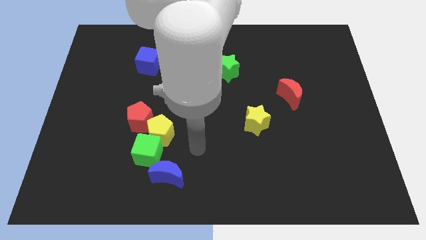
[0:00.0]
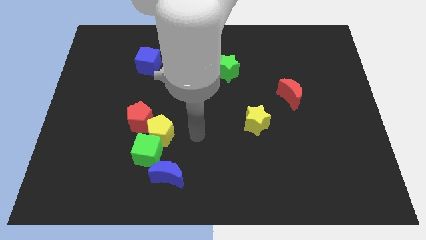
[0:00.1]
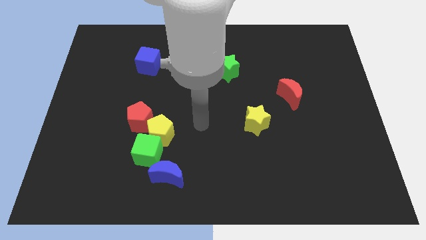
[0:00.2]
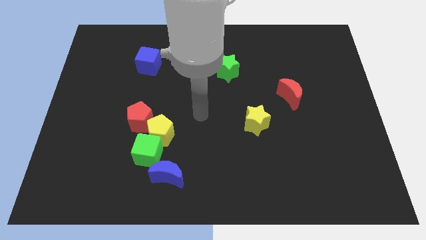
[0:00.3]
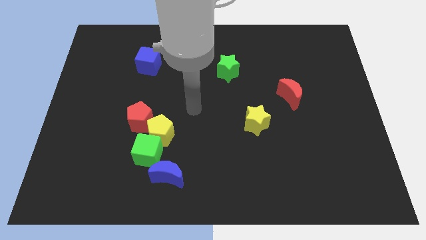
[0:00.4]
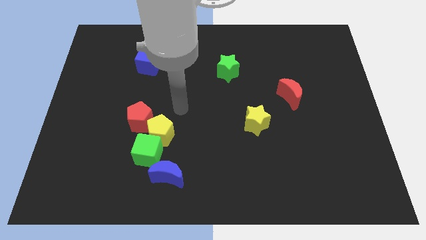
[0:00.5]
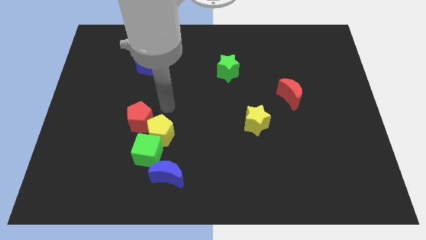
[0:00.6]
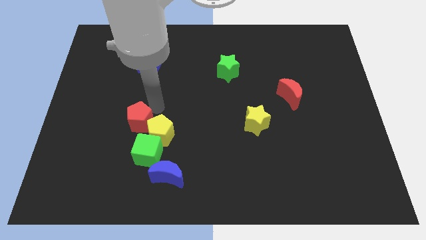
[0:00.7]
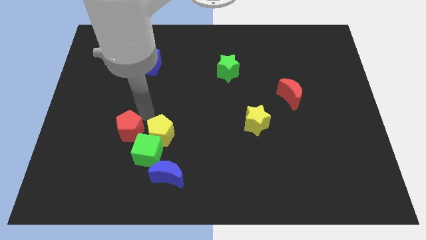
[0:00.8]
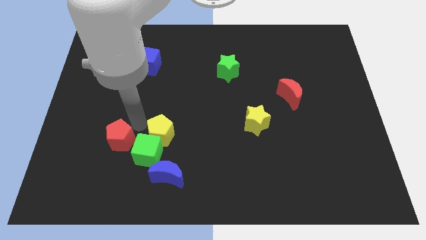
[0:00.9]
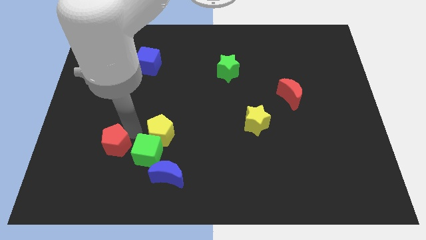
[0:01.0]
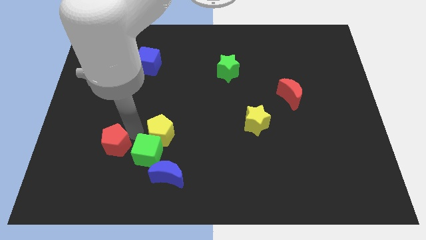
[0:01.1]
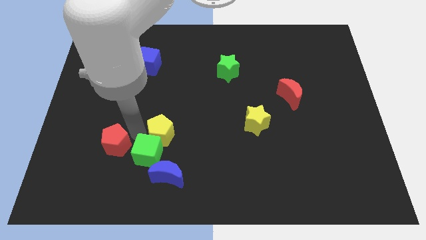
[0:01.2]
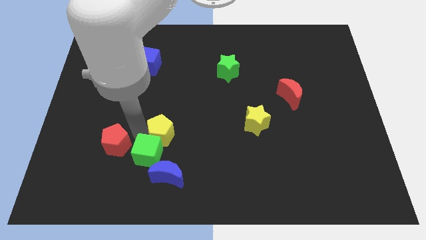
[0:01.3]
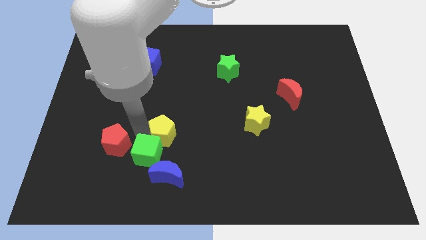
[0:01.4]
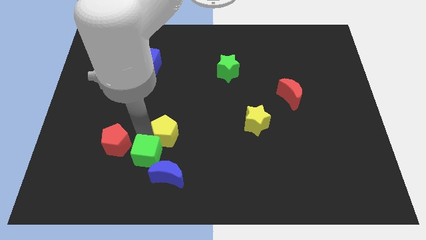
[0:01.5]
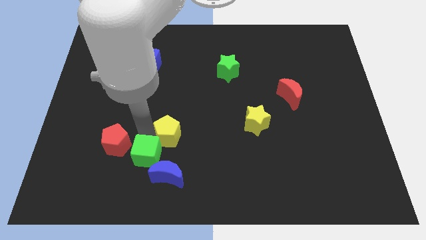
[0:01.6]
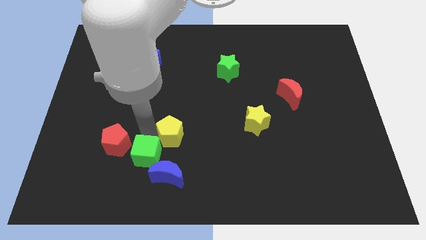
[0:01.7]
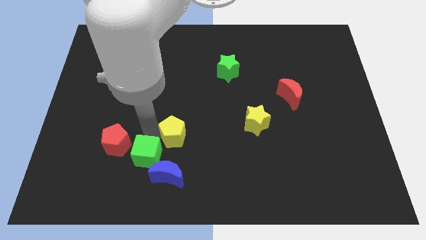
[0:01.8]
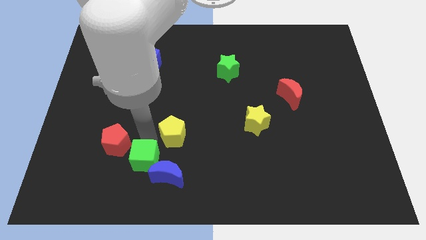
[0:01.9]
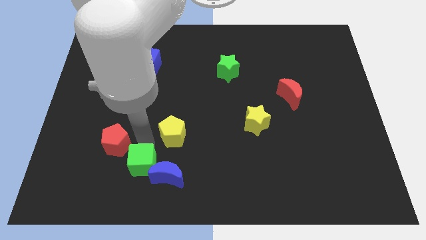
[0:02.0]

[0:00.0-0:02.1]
separate the yellow pentagon from the green cube and red pentagon

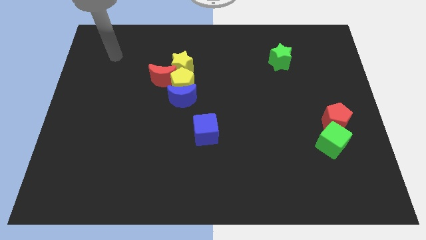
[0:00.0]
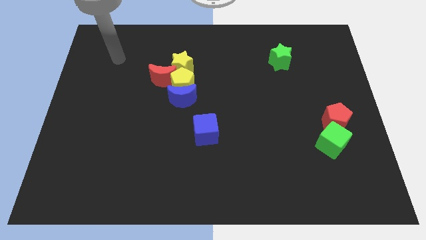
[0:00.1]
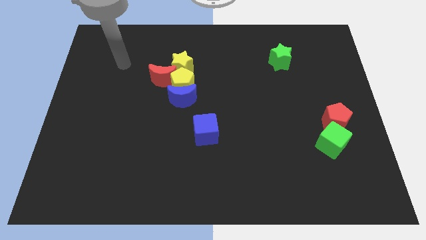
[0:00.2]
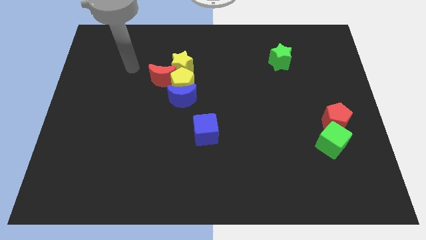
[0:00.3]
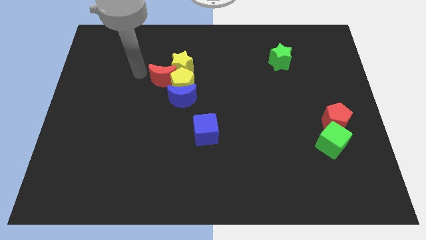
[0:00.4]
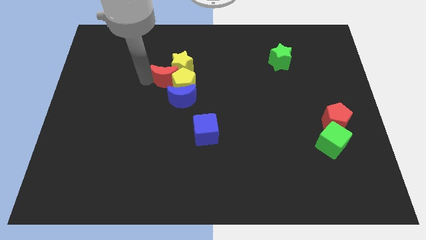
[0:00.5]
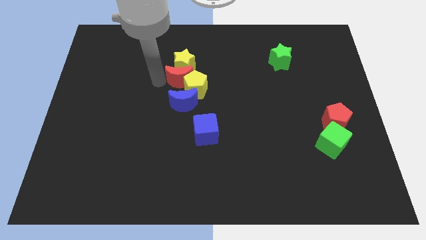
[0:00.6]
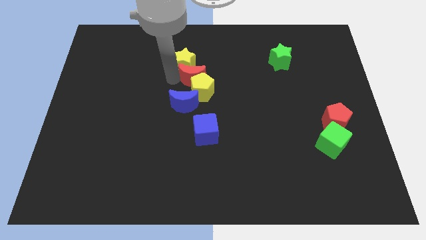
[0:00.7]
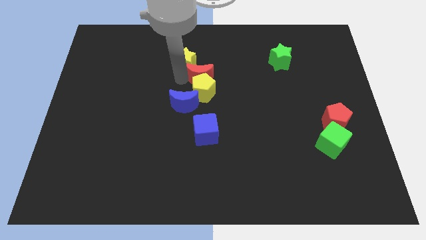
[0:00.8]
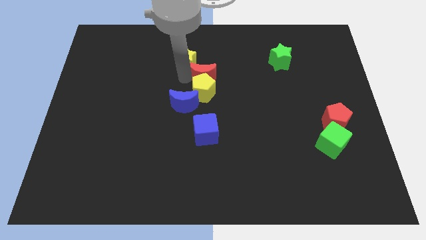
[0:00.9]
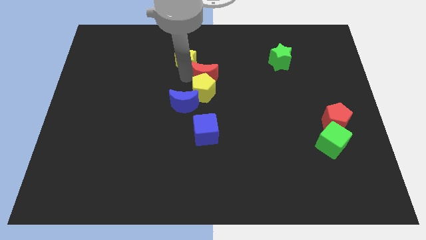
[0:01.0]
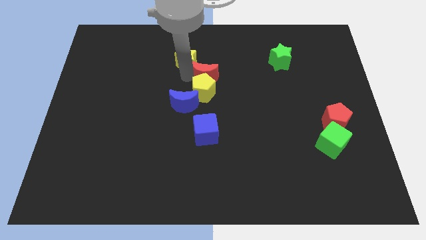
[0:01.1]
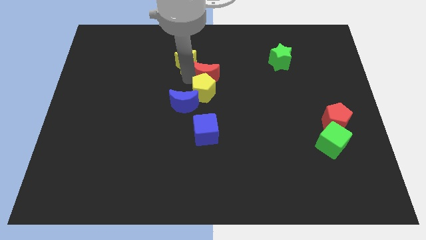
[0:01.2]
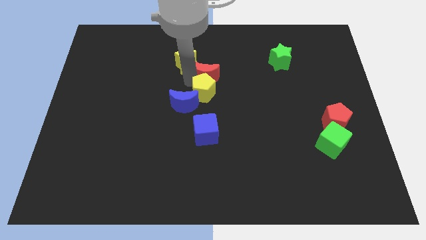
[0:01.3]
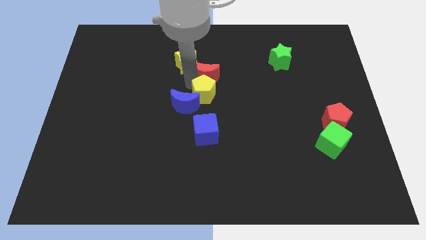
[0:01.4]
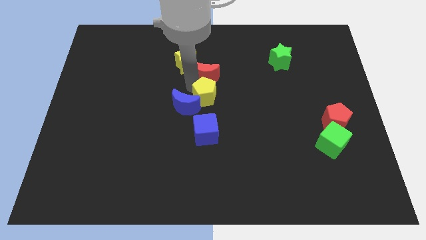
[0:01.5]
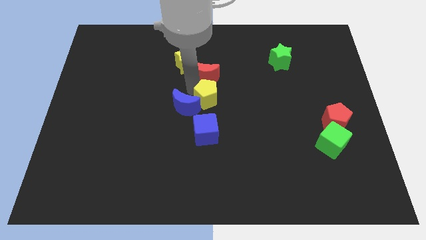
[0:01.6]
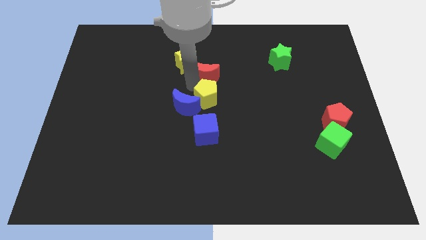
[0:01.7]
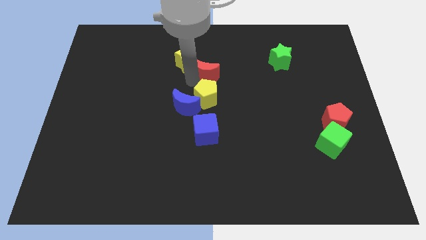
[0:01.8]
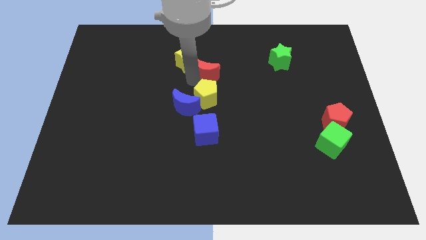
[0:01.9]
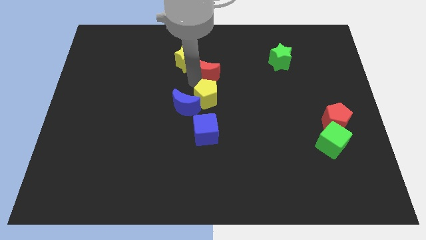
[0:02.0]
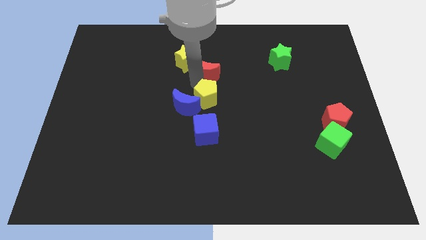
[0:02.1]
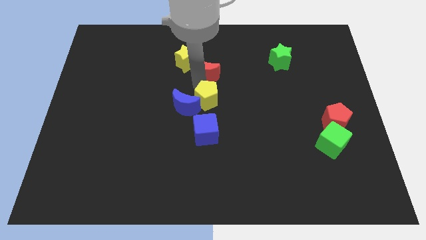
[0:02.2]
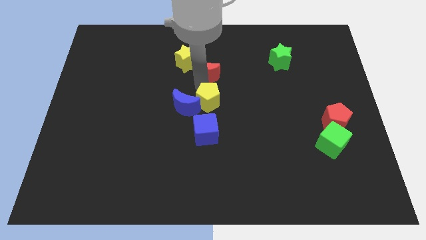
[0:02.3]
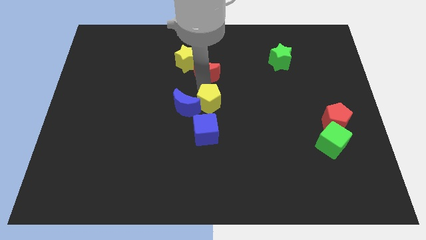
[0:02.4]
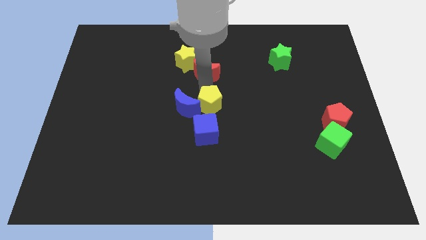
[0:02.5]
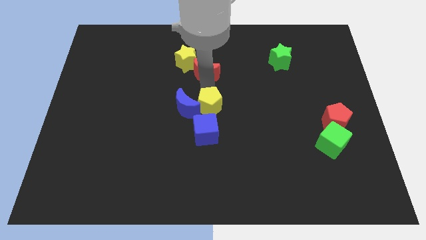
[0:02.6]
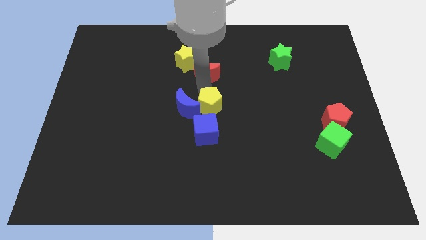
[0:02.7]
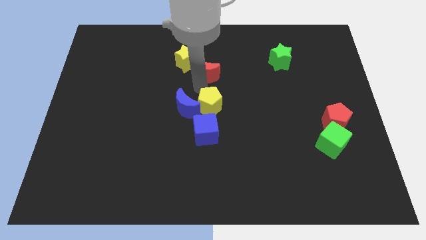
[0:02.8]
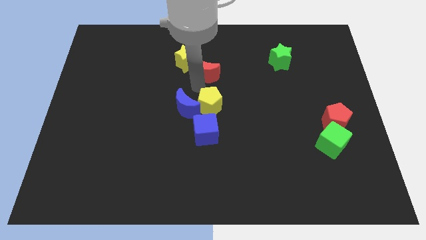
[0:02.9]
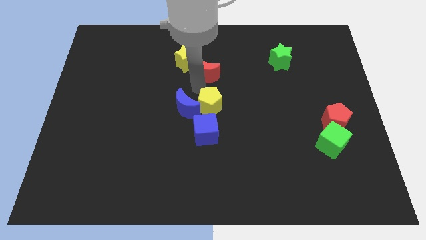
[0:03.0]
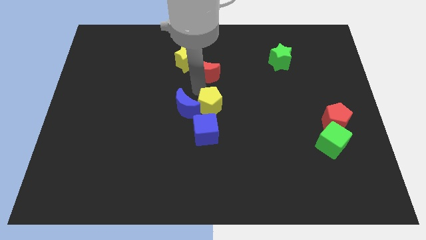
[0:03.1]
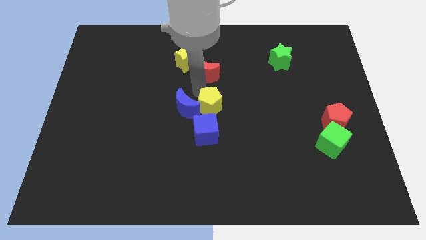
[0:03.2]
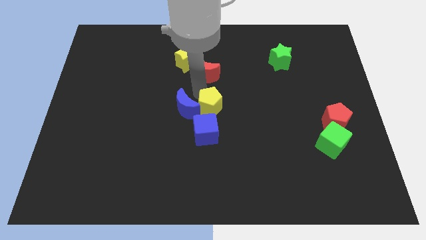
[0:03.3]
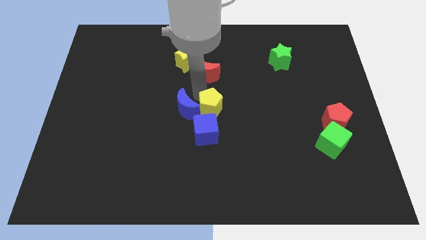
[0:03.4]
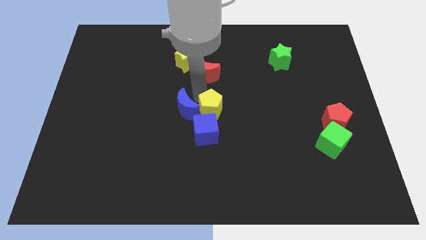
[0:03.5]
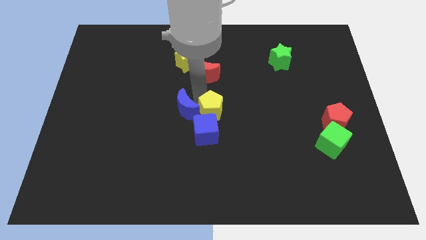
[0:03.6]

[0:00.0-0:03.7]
separate the yellow pentagon from the blue moon, red moon, and yellow star

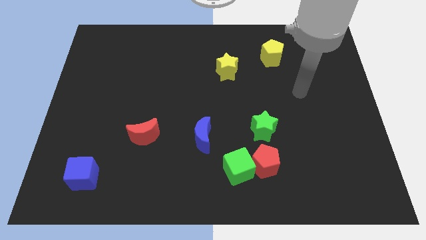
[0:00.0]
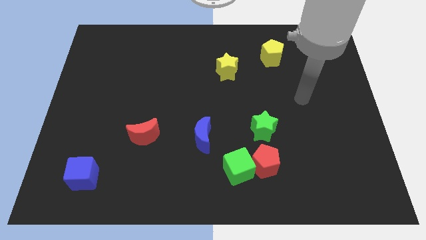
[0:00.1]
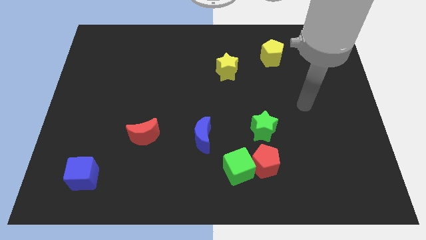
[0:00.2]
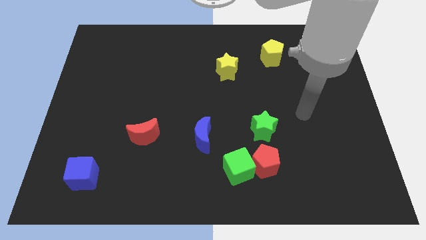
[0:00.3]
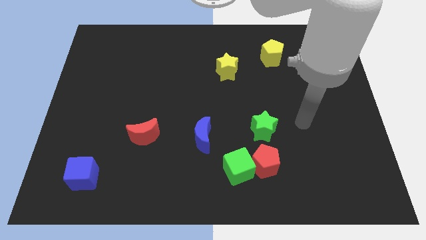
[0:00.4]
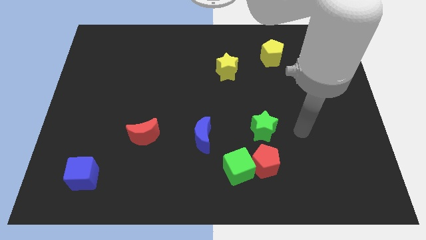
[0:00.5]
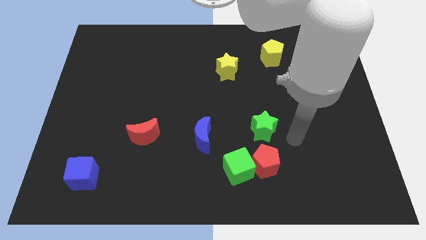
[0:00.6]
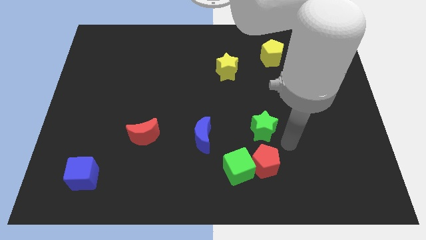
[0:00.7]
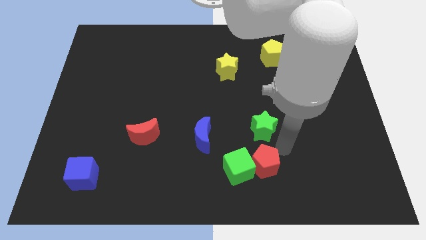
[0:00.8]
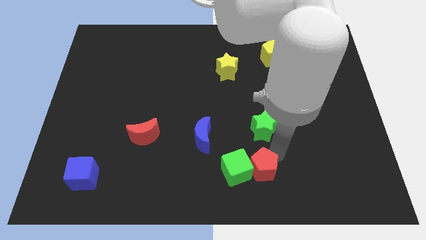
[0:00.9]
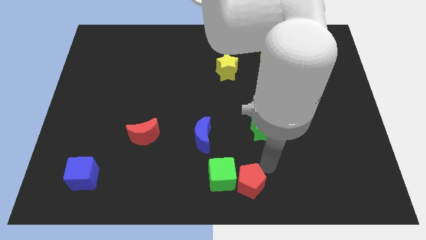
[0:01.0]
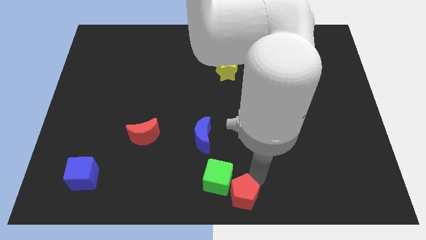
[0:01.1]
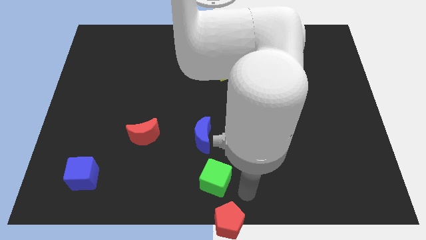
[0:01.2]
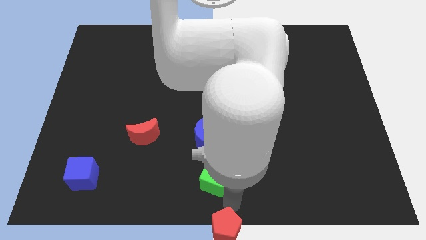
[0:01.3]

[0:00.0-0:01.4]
pull the green cube apart from the red pentagon

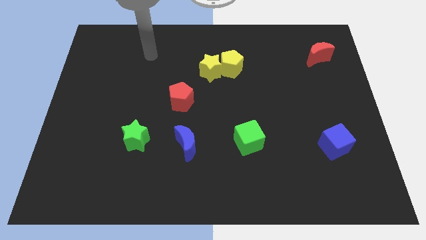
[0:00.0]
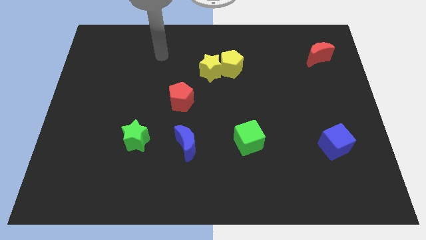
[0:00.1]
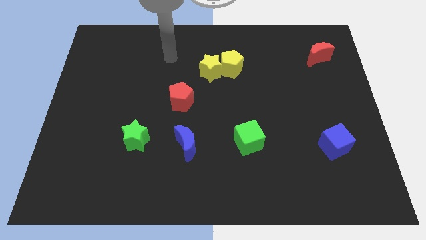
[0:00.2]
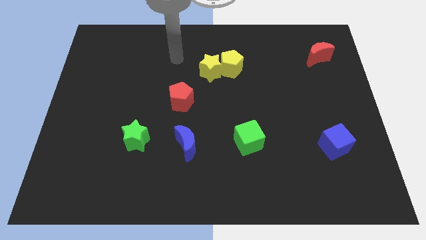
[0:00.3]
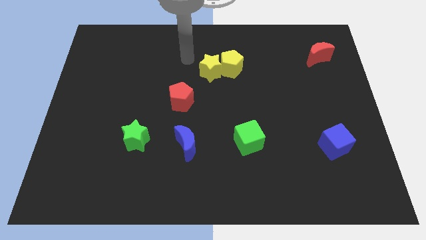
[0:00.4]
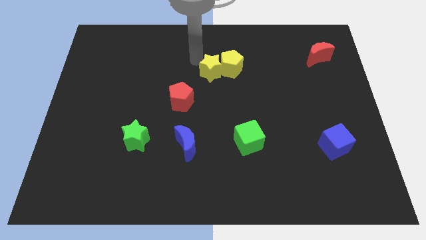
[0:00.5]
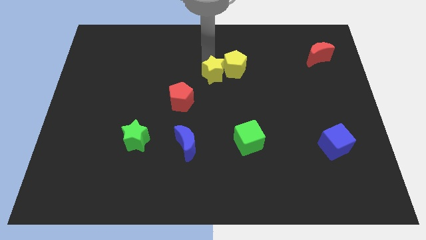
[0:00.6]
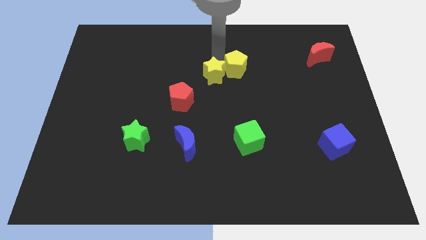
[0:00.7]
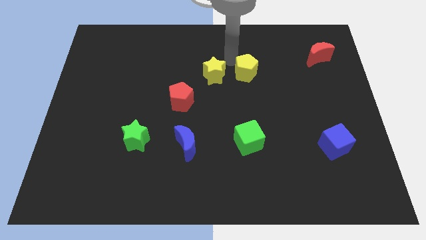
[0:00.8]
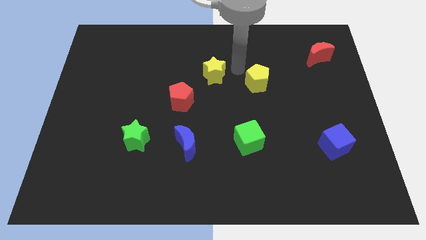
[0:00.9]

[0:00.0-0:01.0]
move the yellow star away from the yellow pentagon

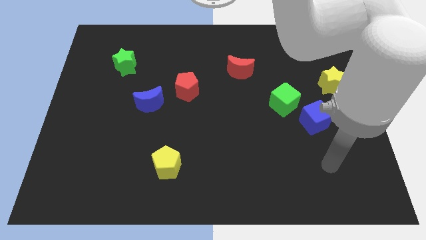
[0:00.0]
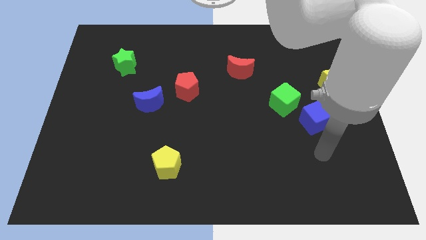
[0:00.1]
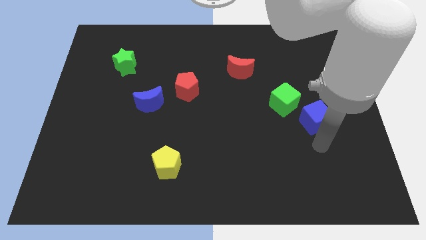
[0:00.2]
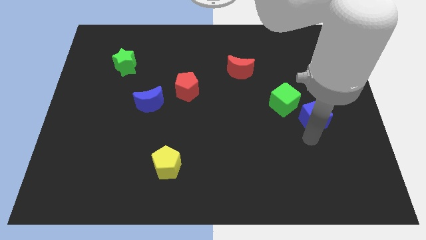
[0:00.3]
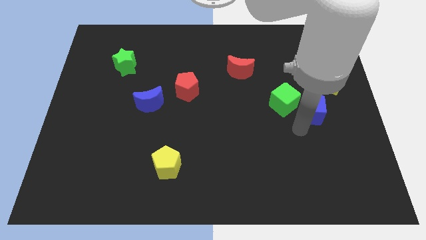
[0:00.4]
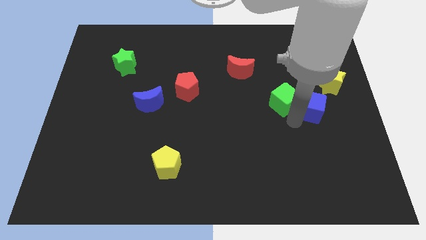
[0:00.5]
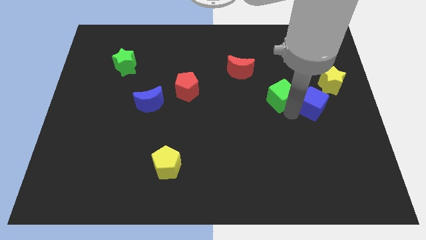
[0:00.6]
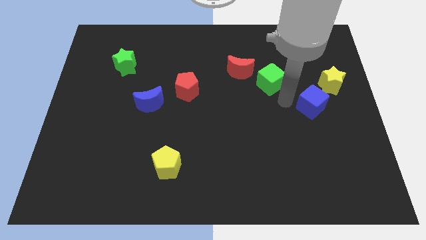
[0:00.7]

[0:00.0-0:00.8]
move the blue cube away from the green cube

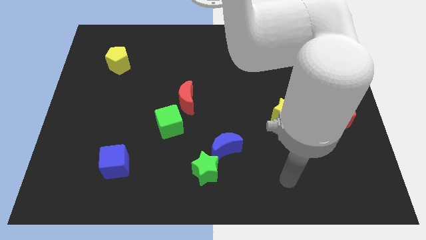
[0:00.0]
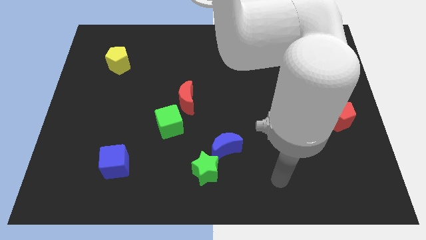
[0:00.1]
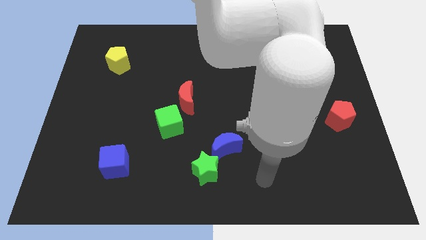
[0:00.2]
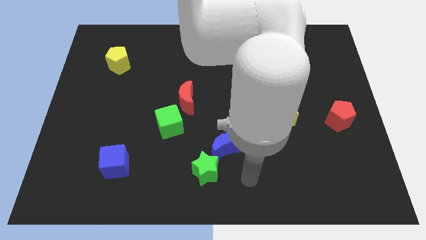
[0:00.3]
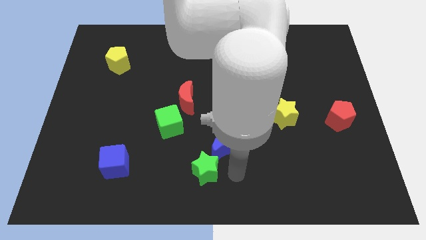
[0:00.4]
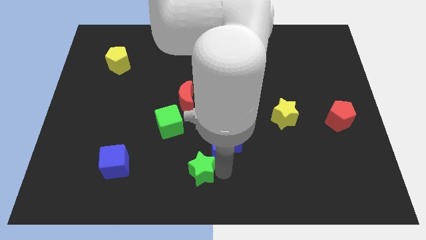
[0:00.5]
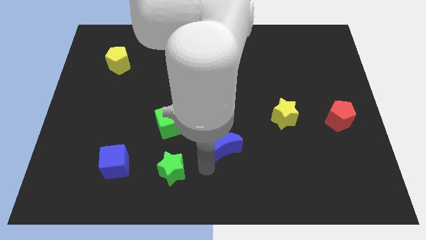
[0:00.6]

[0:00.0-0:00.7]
move the blue moon away from the green star
